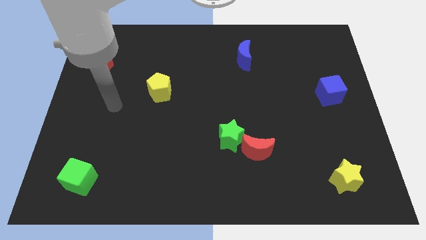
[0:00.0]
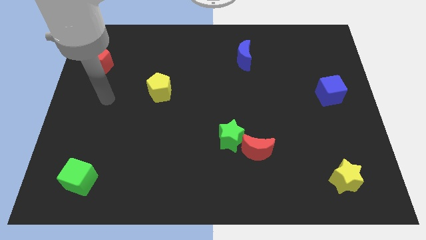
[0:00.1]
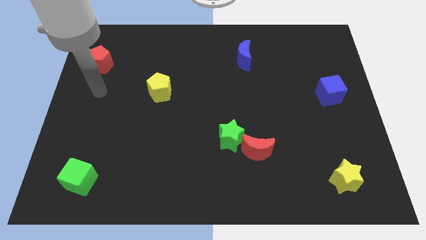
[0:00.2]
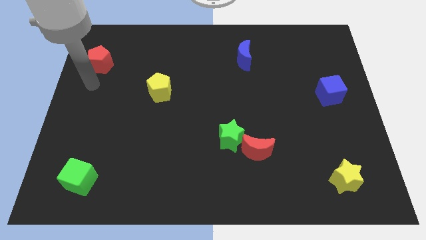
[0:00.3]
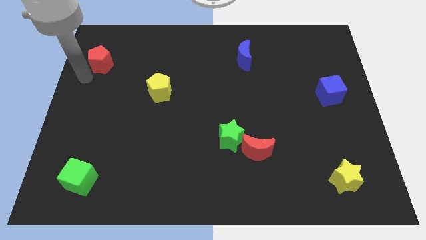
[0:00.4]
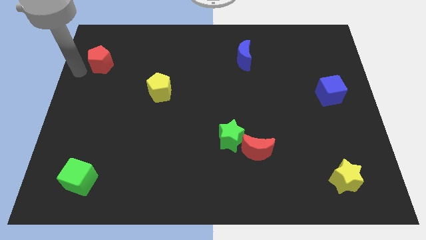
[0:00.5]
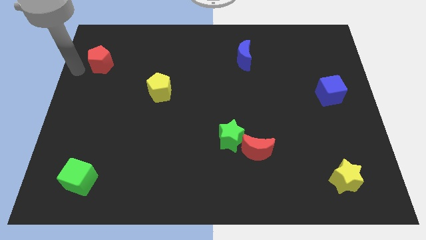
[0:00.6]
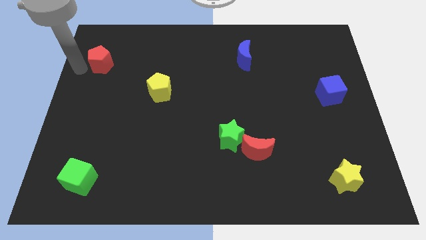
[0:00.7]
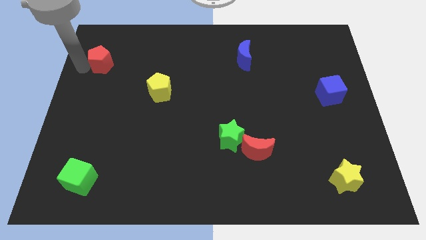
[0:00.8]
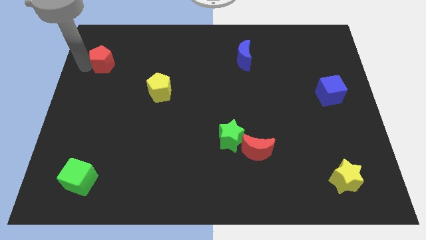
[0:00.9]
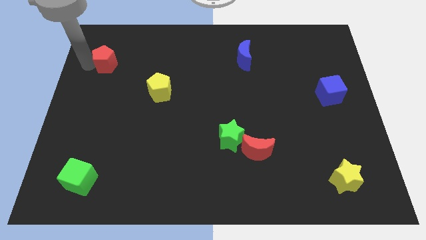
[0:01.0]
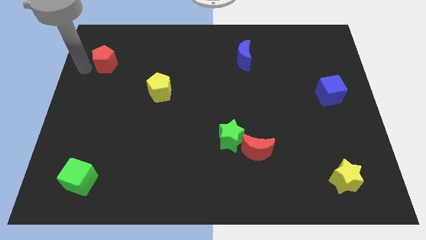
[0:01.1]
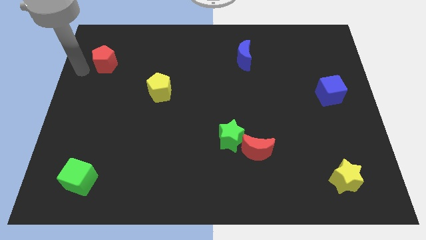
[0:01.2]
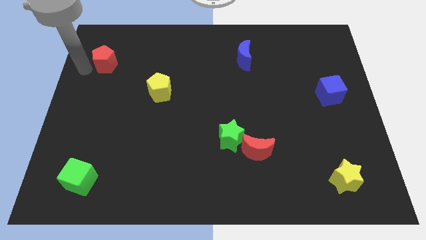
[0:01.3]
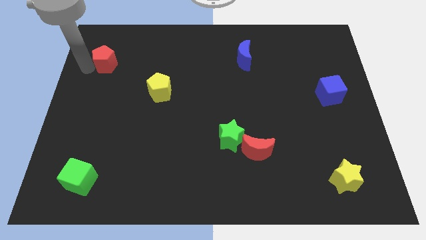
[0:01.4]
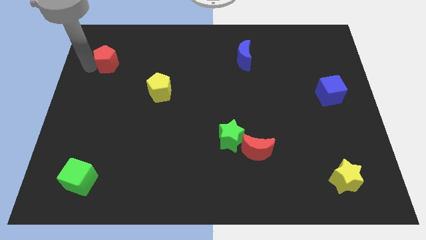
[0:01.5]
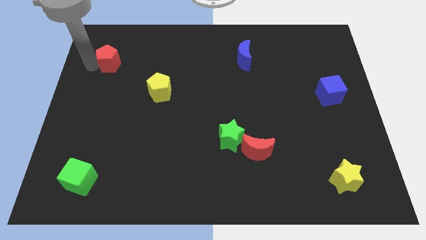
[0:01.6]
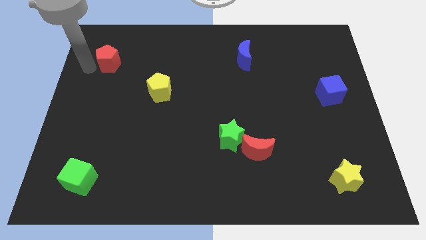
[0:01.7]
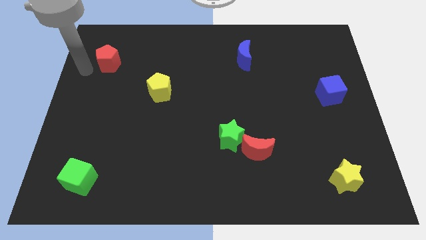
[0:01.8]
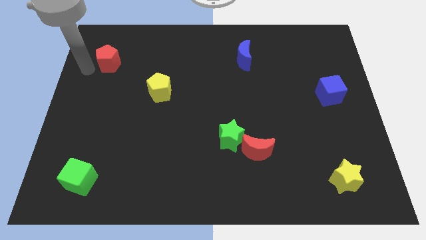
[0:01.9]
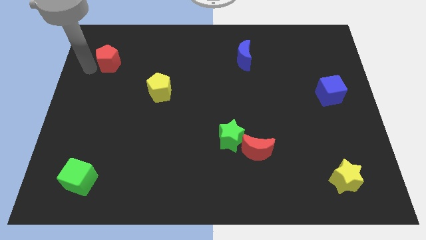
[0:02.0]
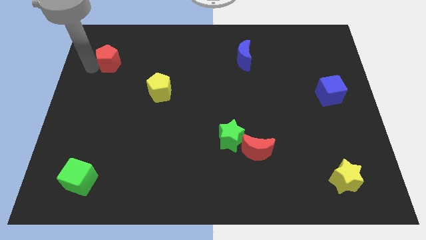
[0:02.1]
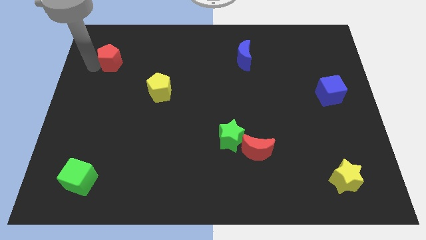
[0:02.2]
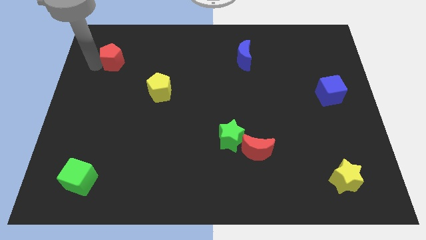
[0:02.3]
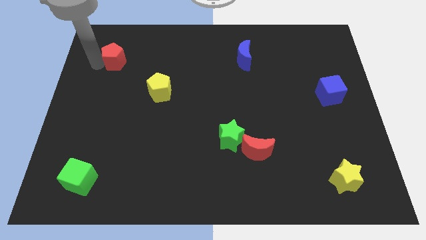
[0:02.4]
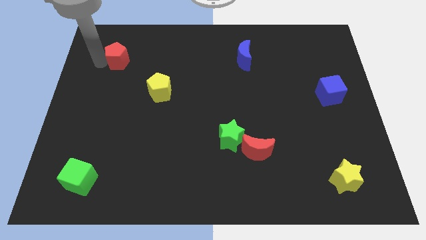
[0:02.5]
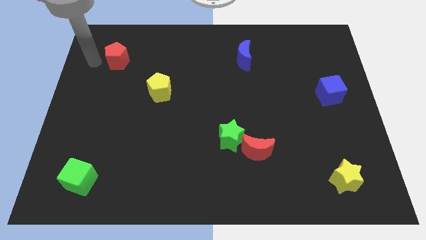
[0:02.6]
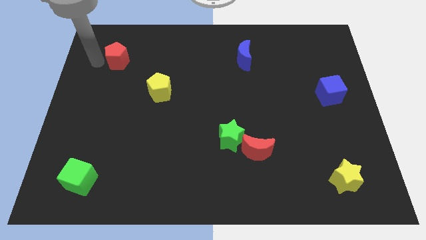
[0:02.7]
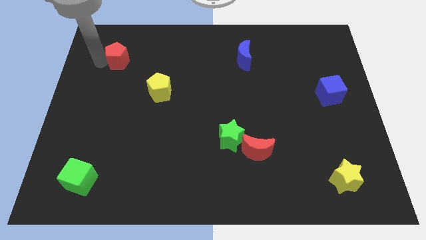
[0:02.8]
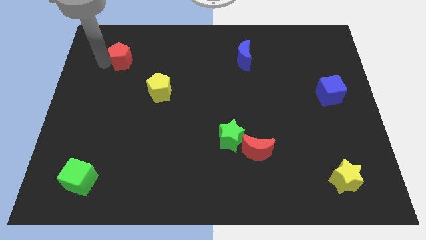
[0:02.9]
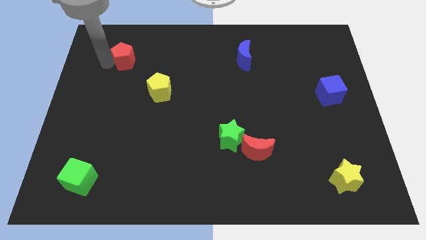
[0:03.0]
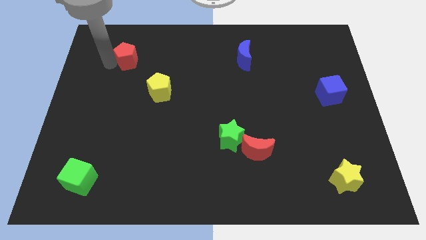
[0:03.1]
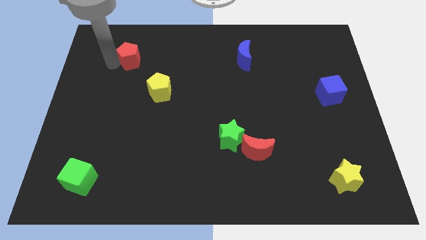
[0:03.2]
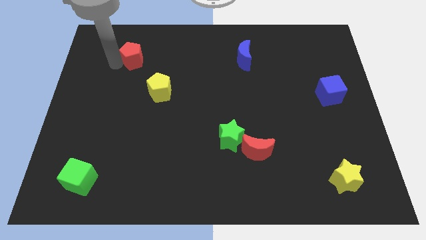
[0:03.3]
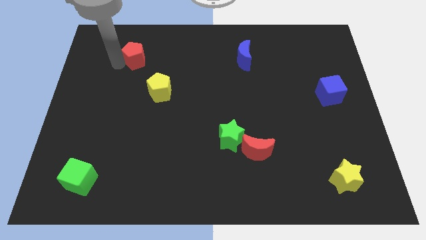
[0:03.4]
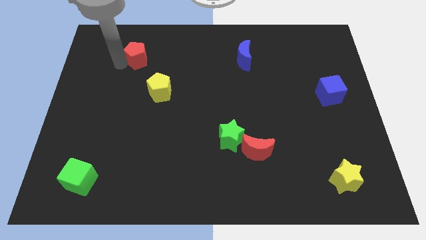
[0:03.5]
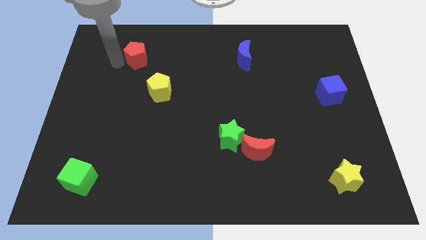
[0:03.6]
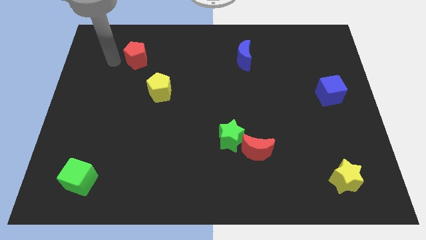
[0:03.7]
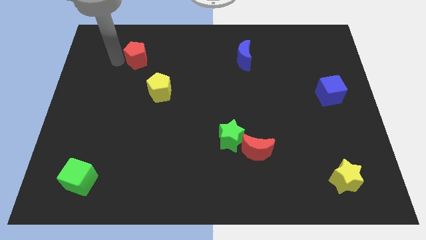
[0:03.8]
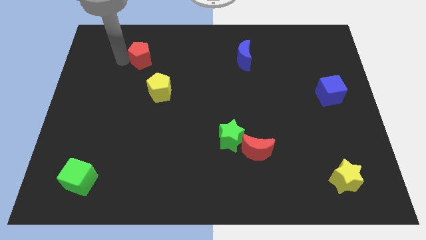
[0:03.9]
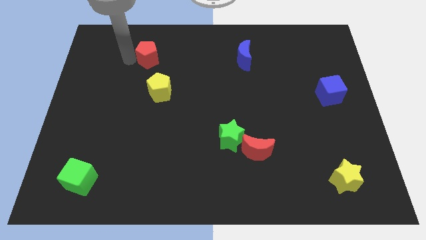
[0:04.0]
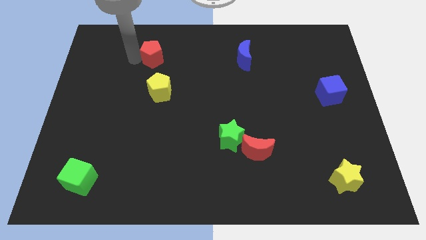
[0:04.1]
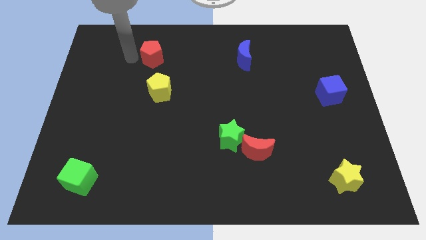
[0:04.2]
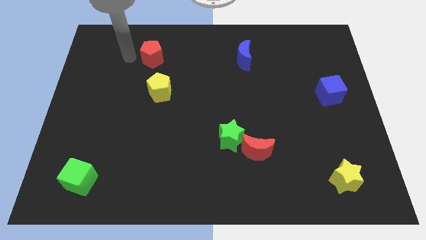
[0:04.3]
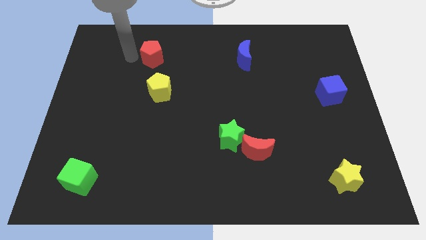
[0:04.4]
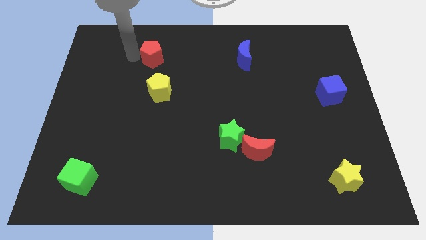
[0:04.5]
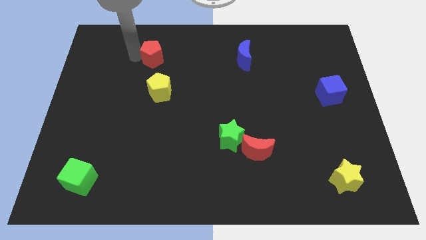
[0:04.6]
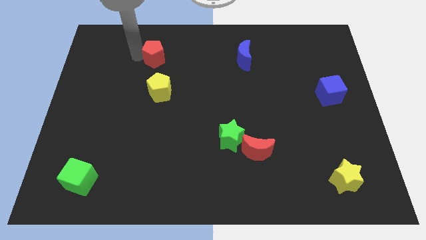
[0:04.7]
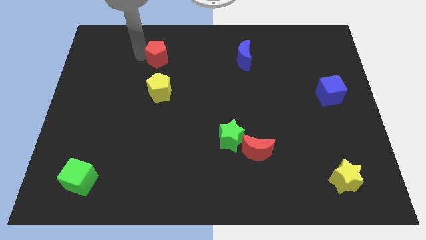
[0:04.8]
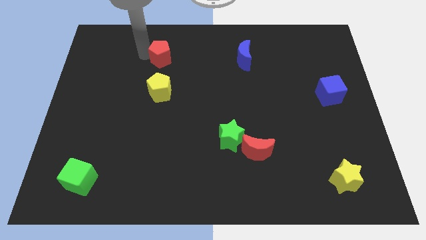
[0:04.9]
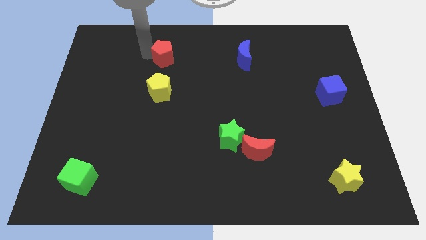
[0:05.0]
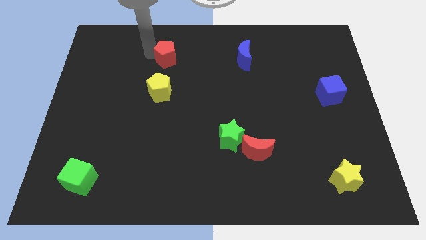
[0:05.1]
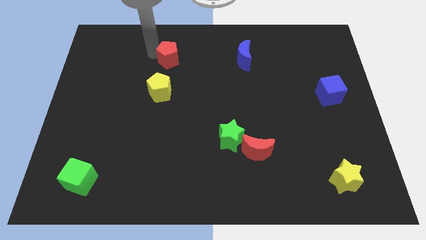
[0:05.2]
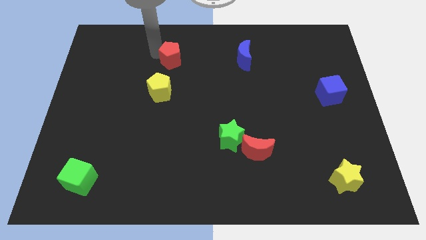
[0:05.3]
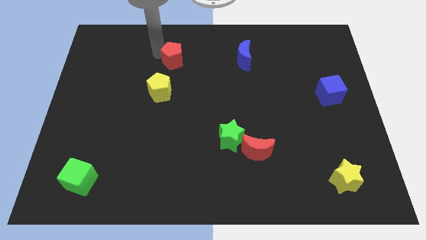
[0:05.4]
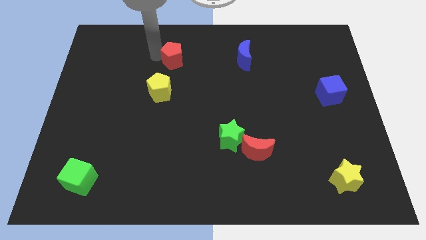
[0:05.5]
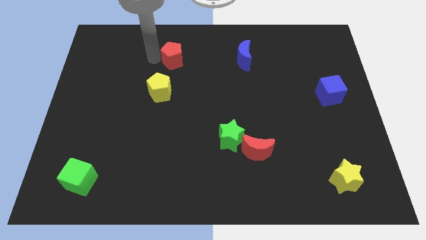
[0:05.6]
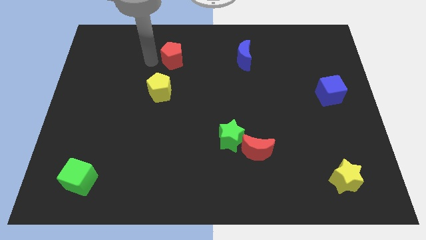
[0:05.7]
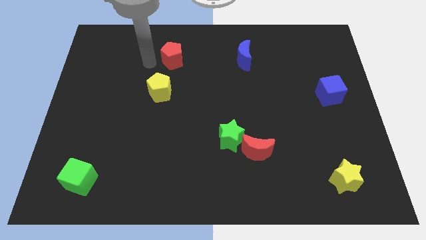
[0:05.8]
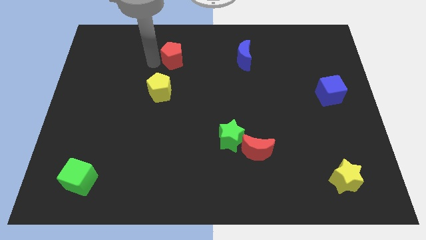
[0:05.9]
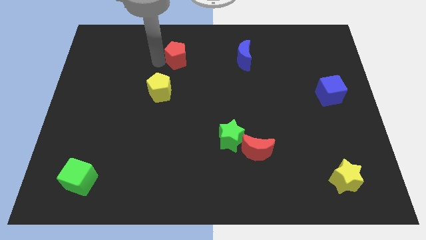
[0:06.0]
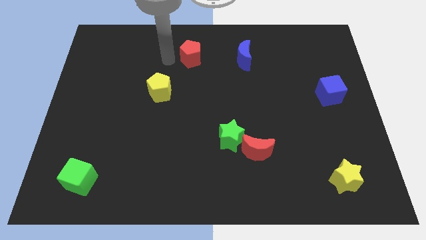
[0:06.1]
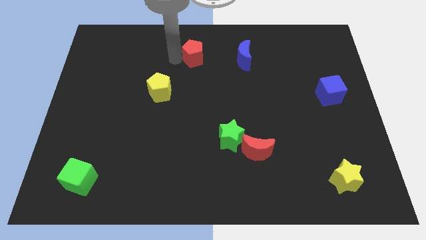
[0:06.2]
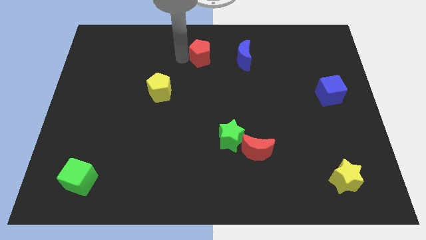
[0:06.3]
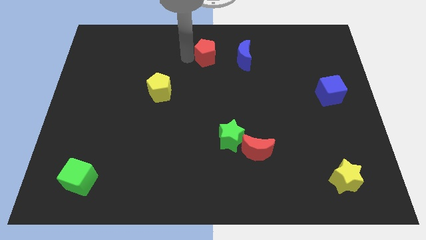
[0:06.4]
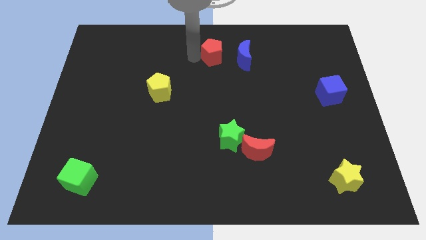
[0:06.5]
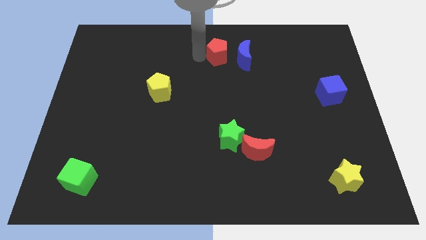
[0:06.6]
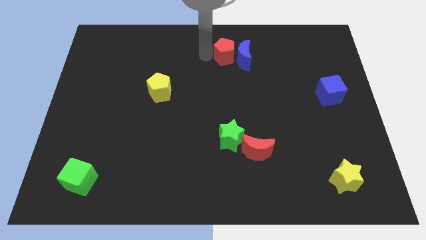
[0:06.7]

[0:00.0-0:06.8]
slide the red pentagon close to the blue moon
